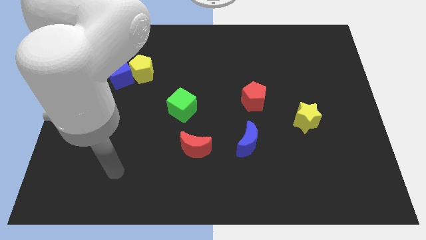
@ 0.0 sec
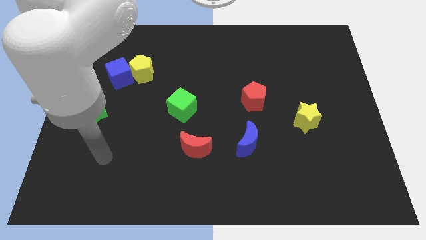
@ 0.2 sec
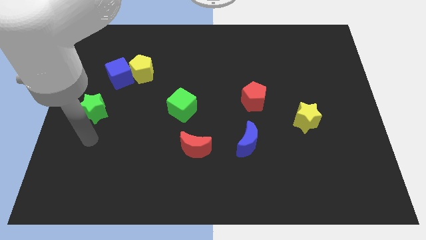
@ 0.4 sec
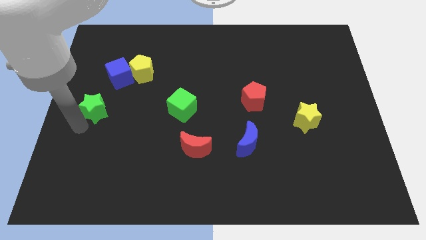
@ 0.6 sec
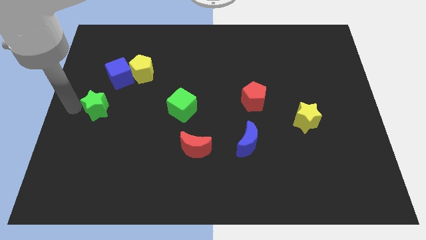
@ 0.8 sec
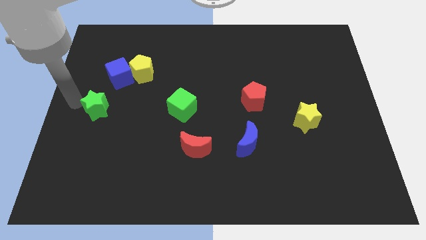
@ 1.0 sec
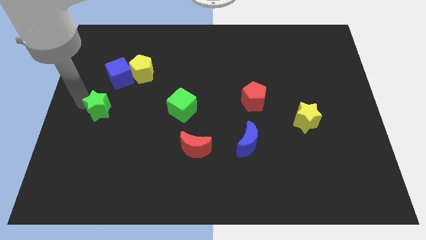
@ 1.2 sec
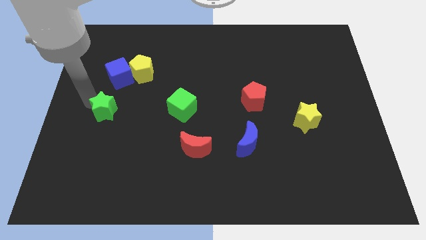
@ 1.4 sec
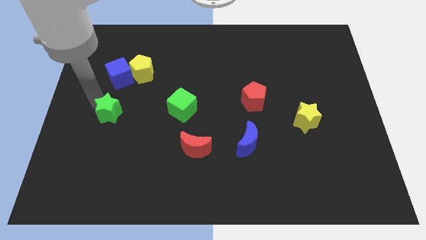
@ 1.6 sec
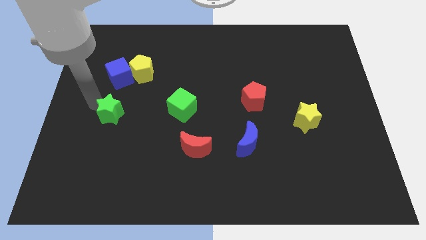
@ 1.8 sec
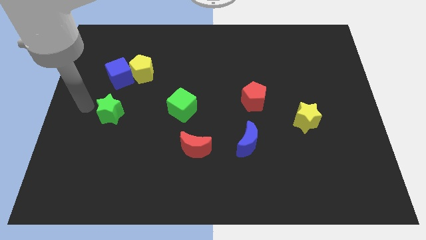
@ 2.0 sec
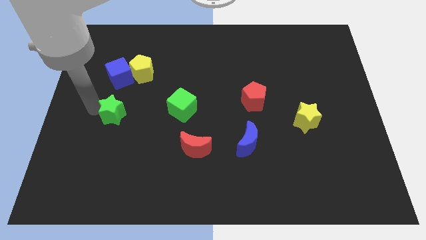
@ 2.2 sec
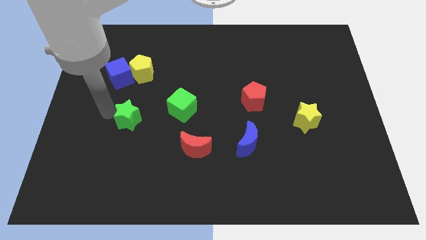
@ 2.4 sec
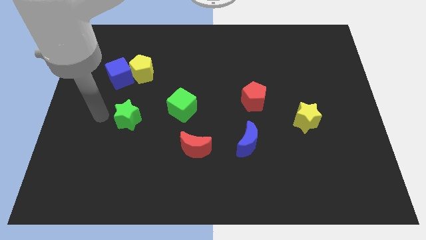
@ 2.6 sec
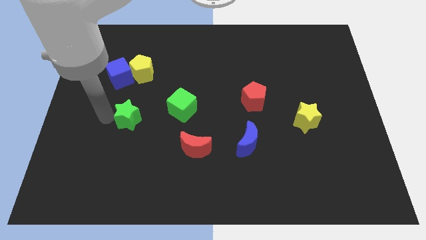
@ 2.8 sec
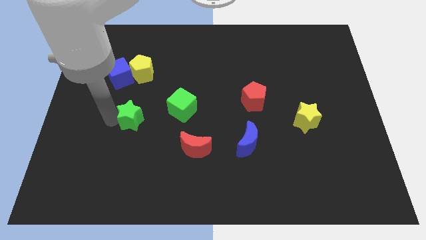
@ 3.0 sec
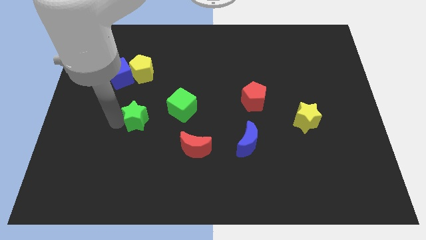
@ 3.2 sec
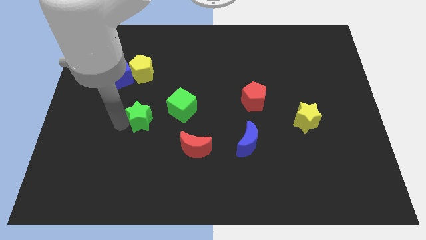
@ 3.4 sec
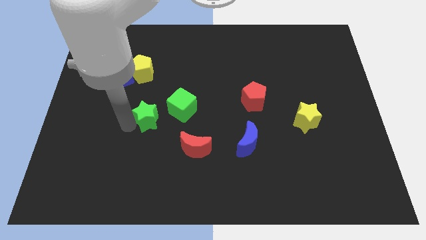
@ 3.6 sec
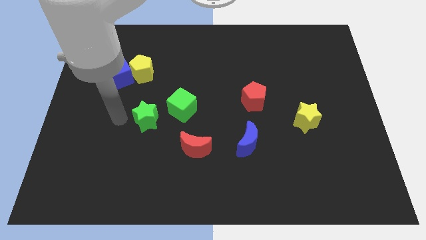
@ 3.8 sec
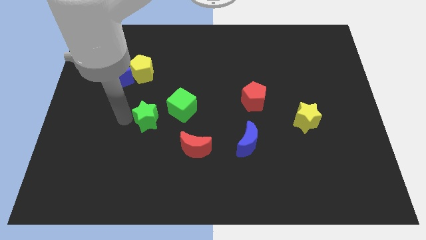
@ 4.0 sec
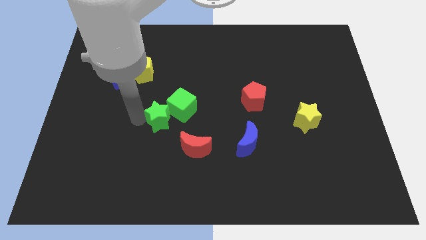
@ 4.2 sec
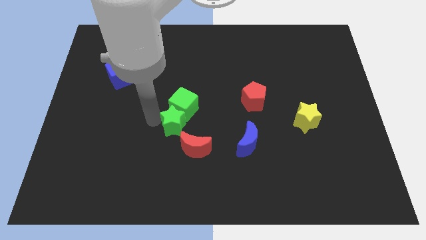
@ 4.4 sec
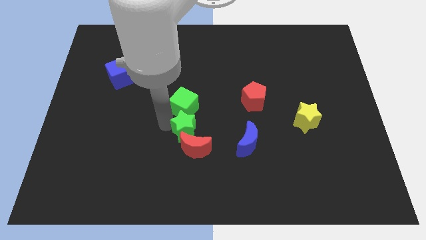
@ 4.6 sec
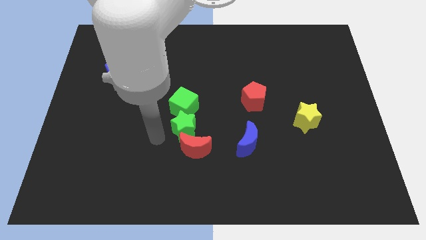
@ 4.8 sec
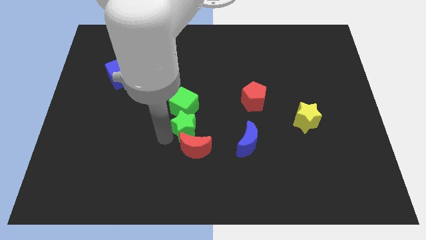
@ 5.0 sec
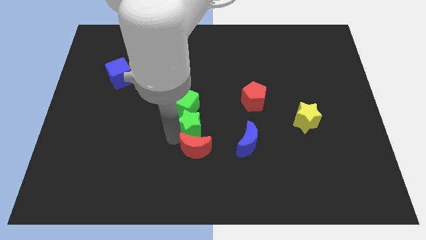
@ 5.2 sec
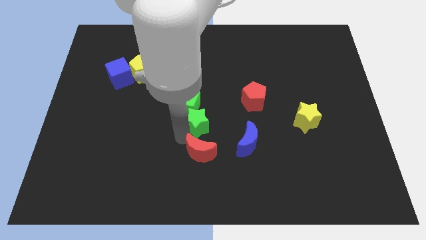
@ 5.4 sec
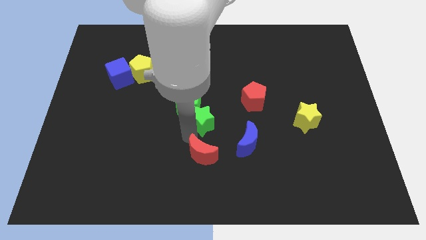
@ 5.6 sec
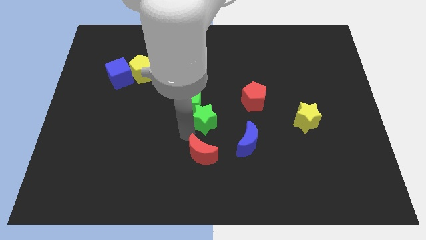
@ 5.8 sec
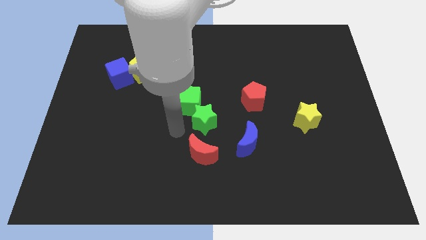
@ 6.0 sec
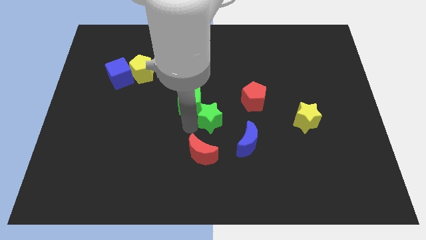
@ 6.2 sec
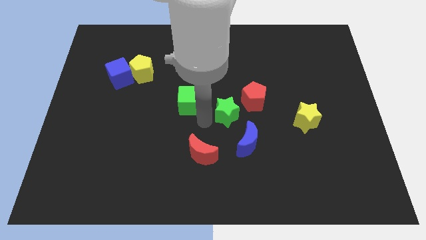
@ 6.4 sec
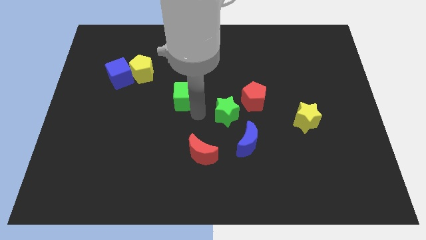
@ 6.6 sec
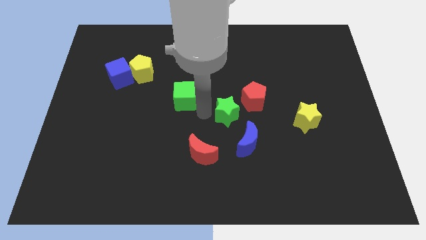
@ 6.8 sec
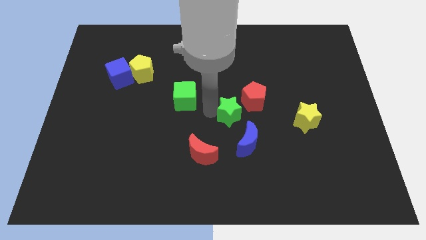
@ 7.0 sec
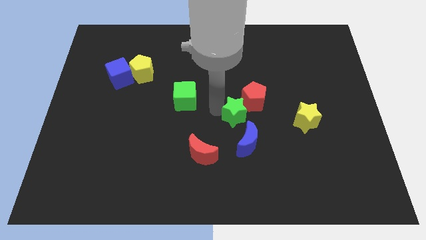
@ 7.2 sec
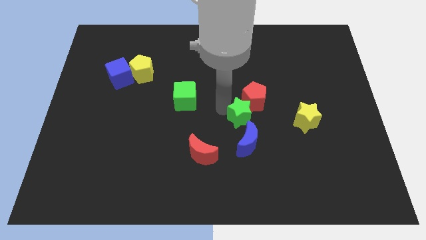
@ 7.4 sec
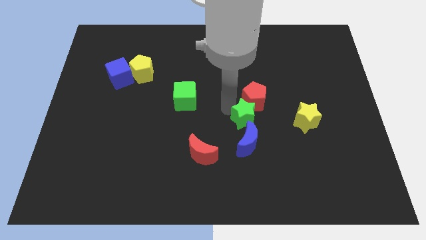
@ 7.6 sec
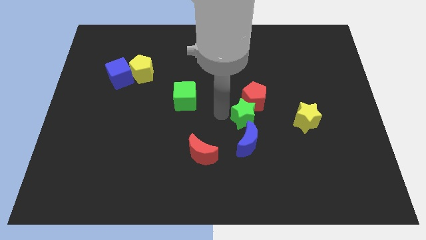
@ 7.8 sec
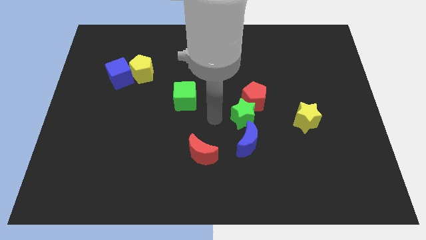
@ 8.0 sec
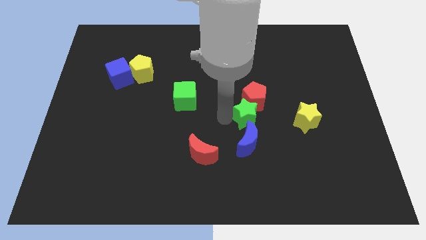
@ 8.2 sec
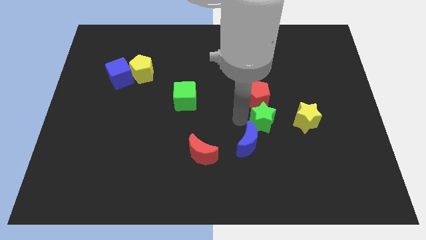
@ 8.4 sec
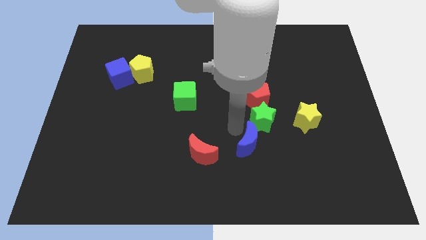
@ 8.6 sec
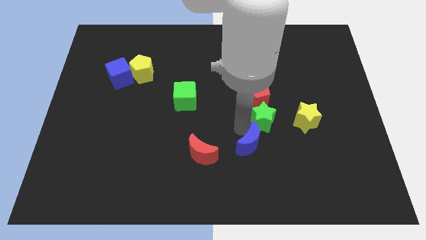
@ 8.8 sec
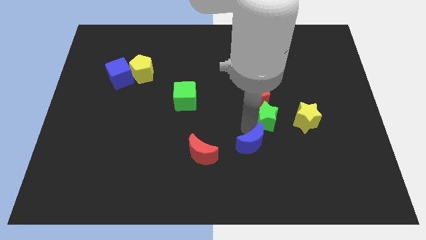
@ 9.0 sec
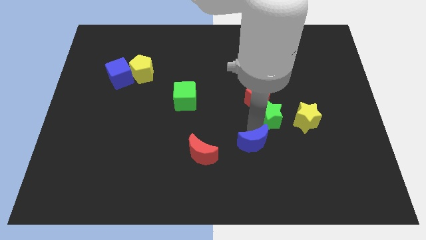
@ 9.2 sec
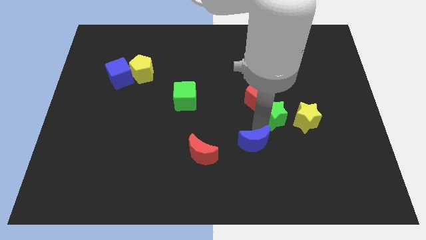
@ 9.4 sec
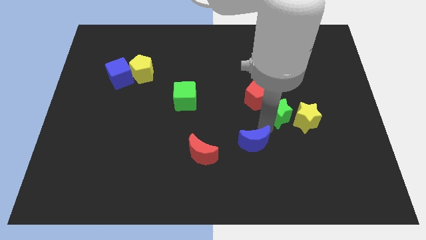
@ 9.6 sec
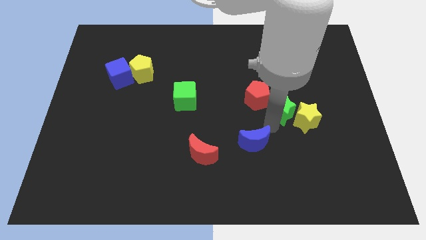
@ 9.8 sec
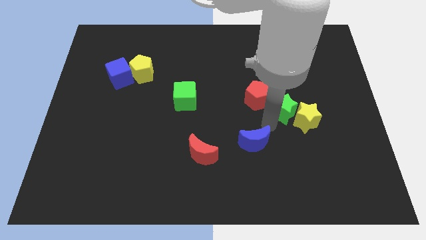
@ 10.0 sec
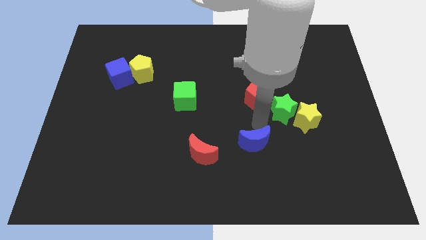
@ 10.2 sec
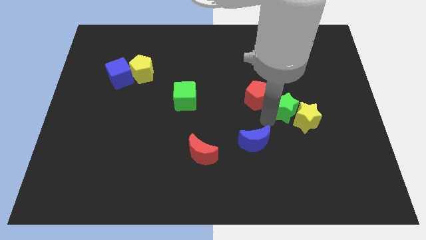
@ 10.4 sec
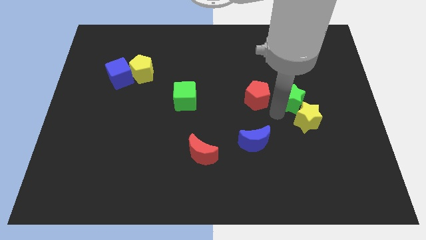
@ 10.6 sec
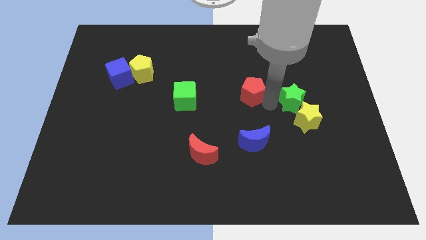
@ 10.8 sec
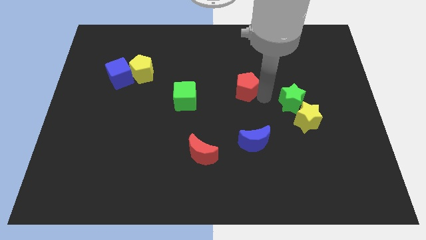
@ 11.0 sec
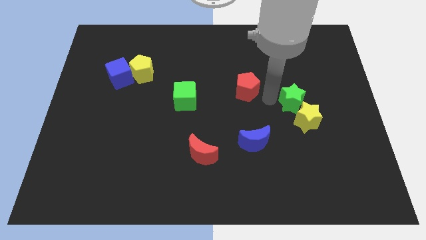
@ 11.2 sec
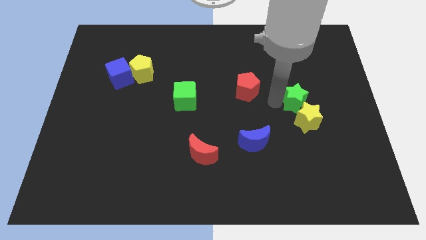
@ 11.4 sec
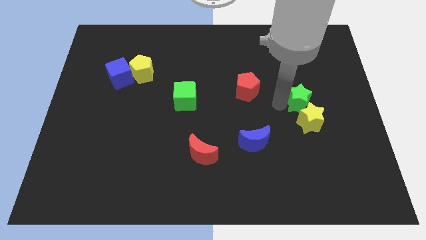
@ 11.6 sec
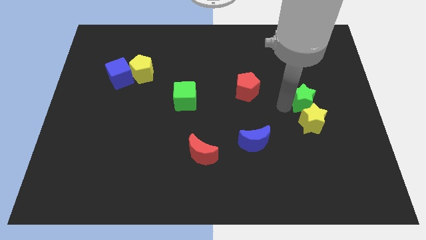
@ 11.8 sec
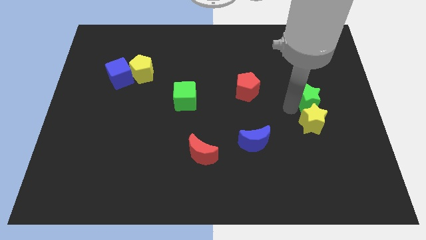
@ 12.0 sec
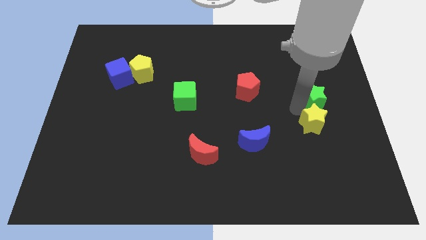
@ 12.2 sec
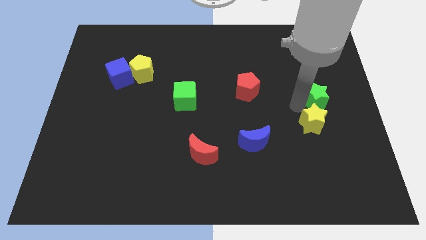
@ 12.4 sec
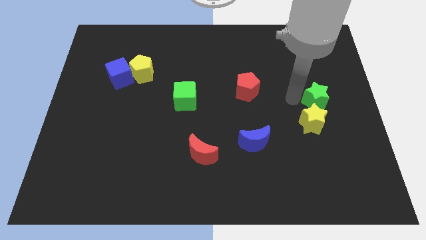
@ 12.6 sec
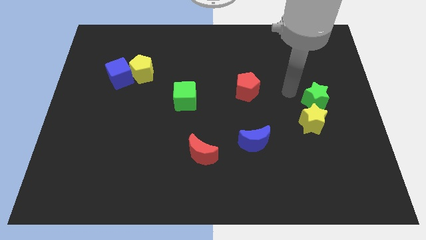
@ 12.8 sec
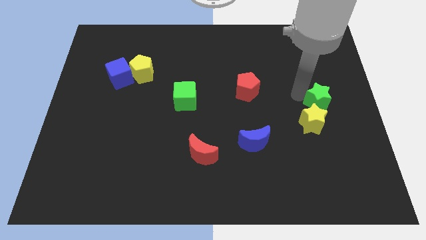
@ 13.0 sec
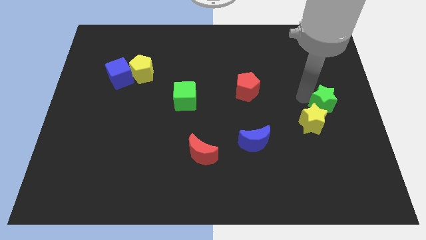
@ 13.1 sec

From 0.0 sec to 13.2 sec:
move the green star to the center right
